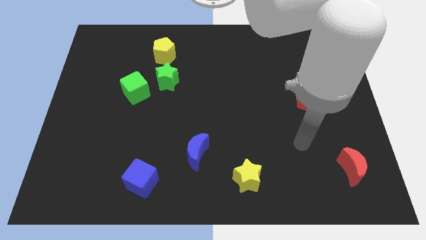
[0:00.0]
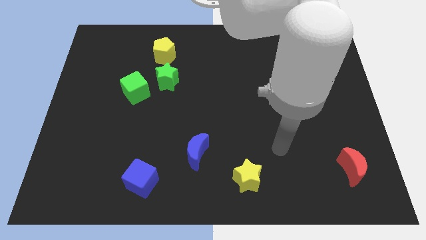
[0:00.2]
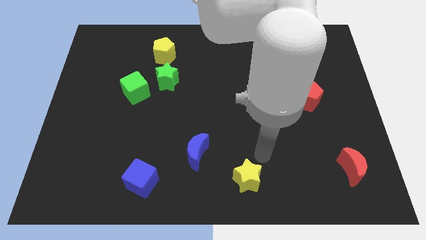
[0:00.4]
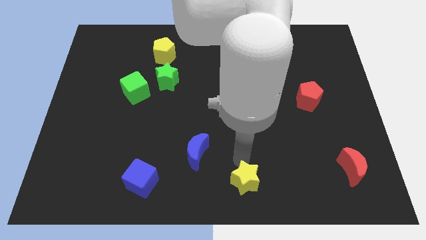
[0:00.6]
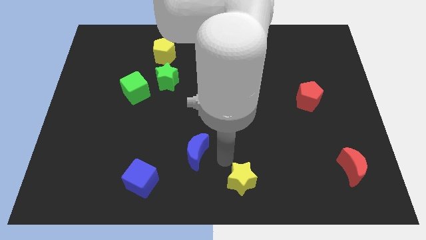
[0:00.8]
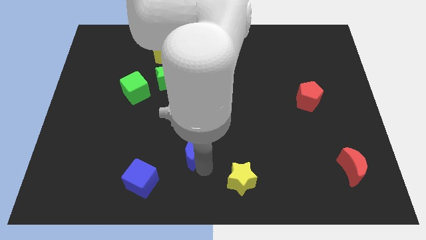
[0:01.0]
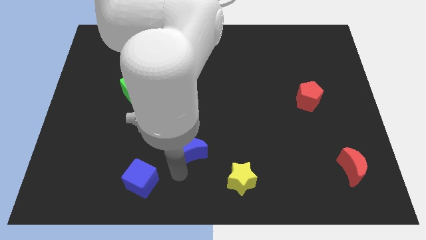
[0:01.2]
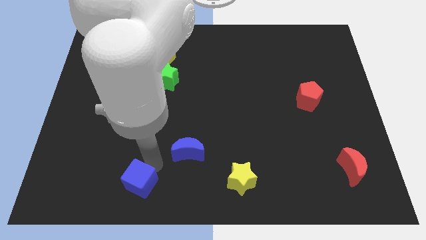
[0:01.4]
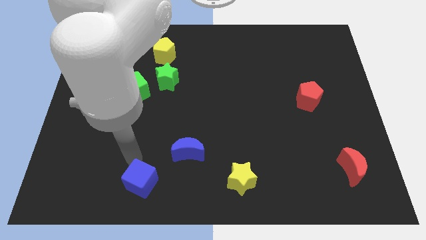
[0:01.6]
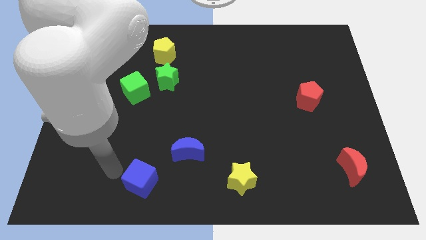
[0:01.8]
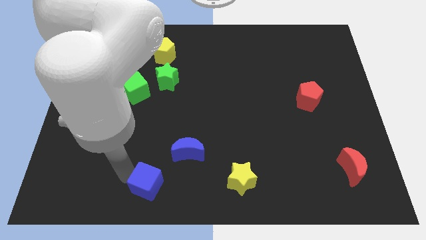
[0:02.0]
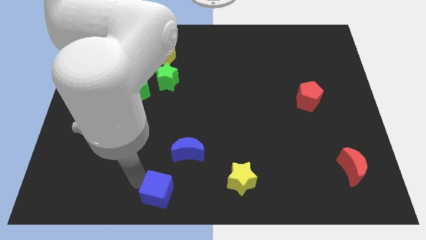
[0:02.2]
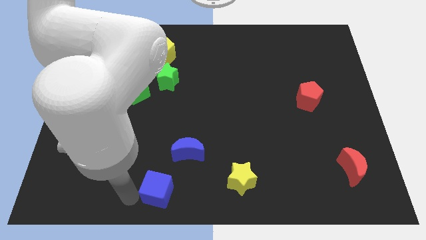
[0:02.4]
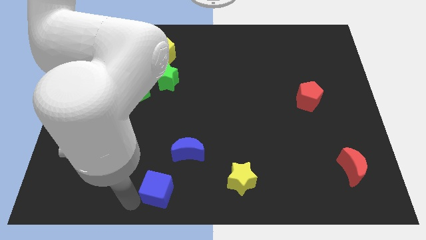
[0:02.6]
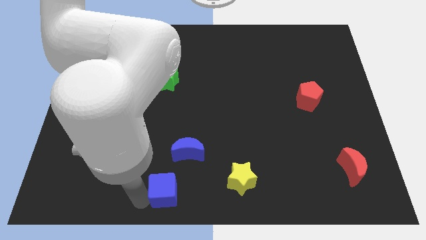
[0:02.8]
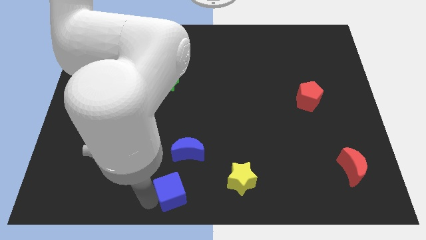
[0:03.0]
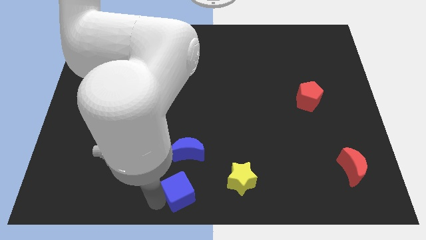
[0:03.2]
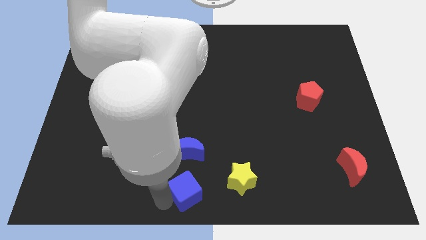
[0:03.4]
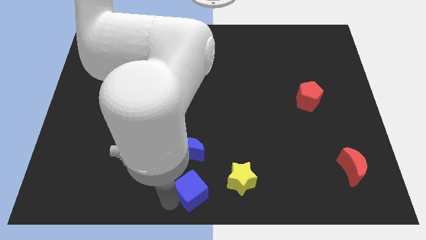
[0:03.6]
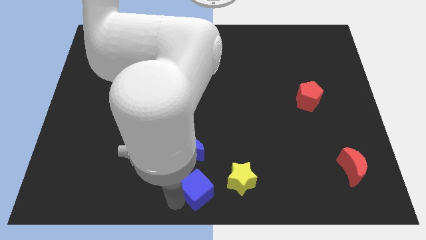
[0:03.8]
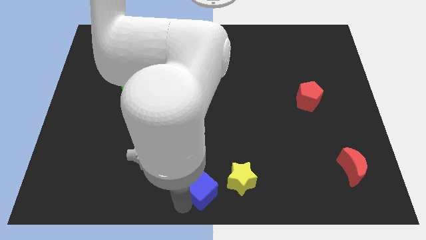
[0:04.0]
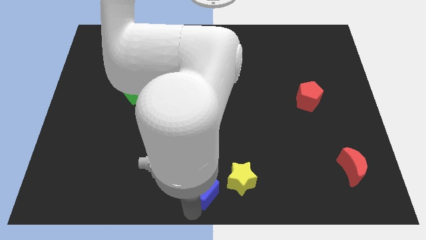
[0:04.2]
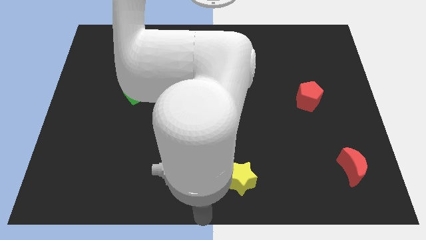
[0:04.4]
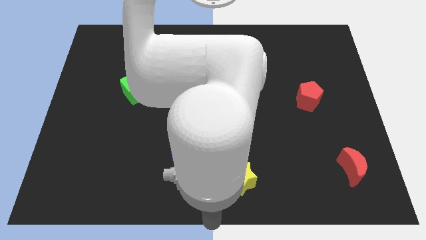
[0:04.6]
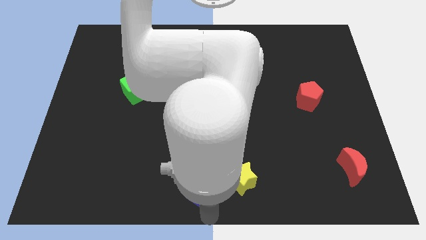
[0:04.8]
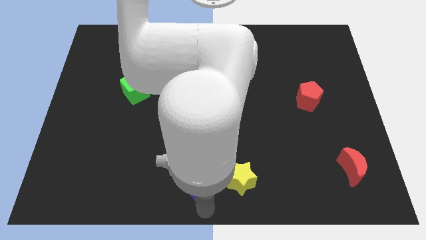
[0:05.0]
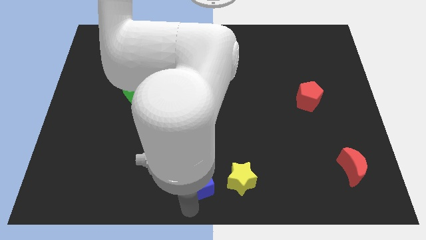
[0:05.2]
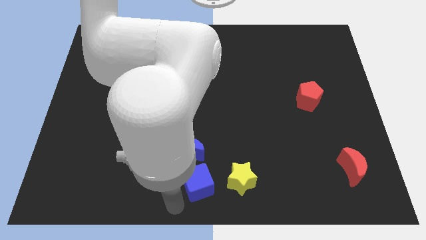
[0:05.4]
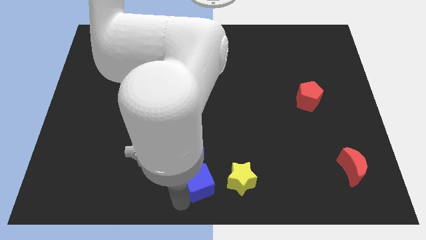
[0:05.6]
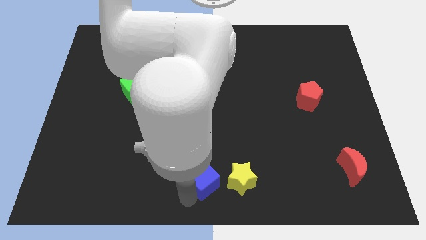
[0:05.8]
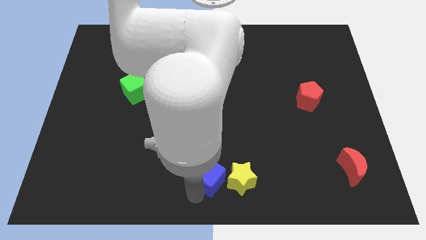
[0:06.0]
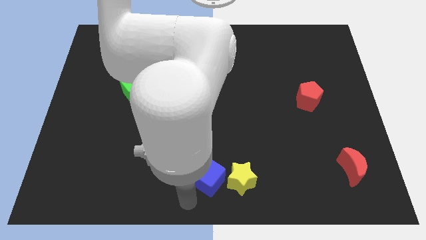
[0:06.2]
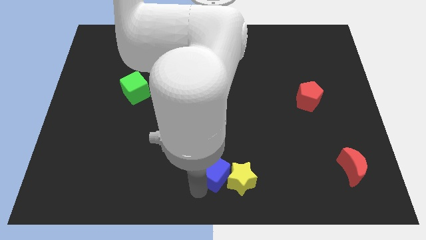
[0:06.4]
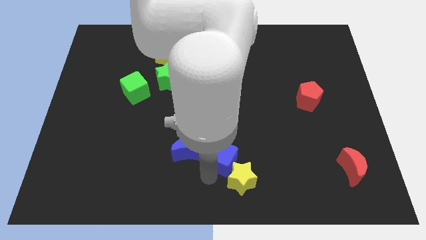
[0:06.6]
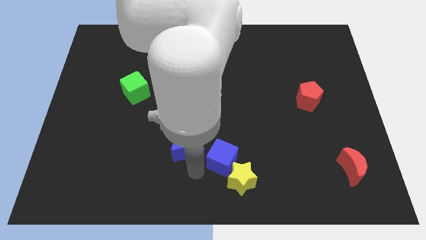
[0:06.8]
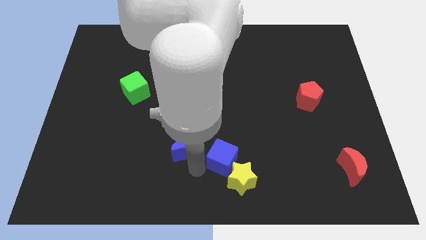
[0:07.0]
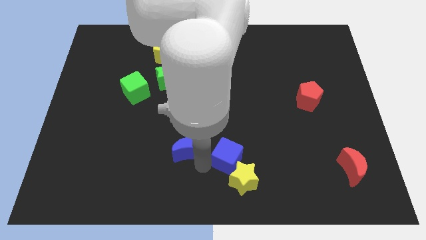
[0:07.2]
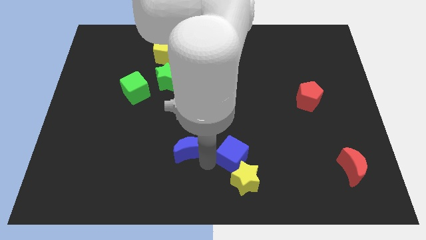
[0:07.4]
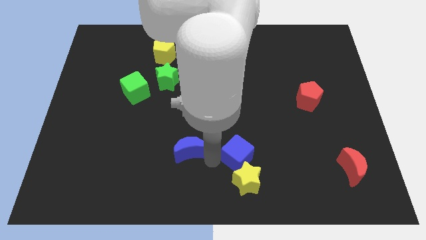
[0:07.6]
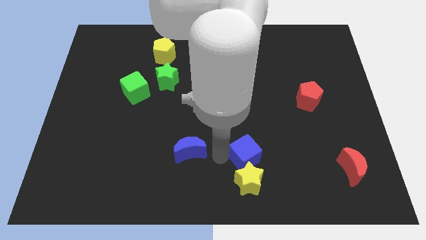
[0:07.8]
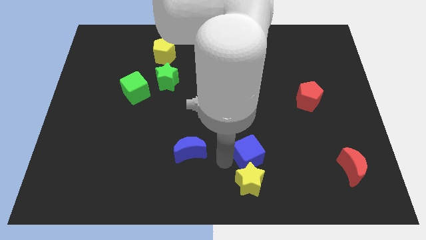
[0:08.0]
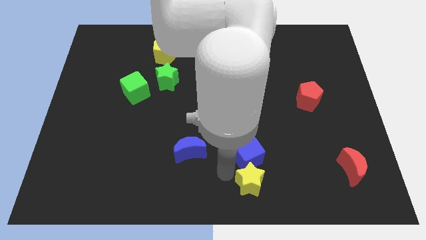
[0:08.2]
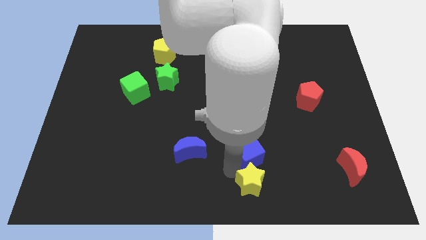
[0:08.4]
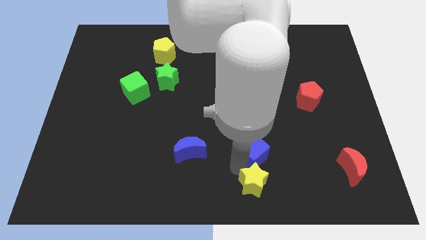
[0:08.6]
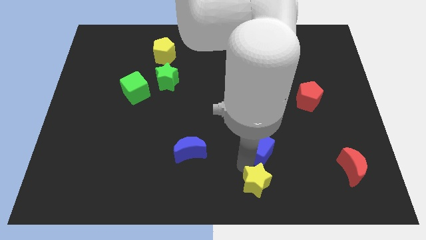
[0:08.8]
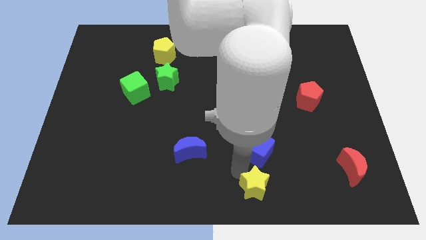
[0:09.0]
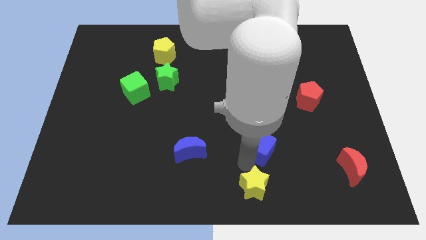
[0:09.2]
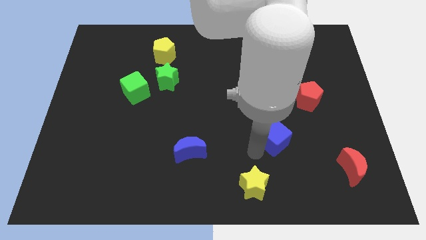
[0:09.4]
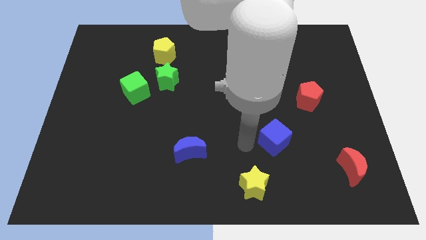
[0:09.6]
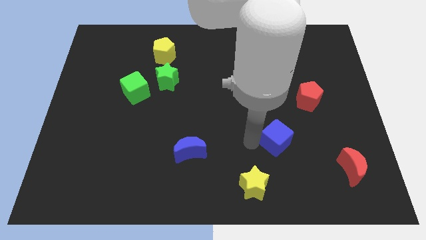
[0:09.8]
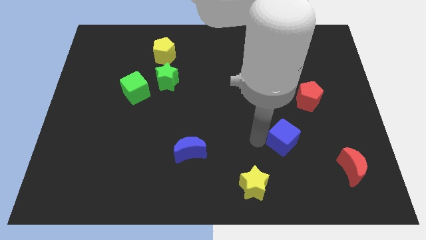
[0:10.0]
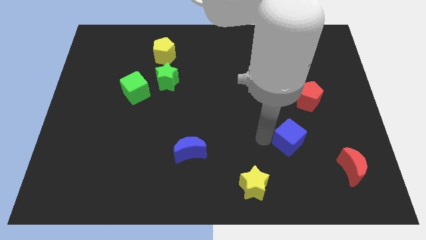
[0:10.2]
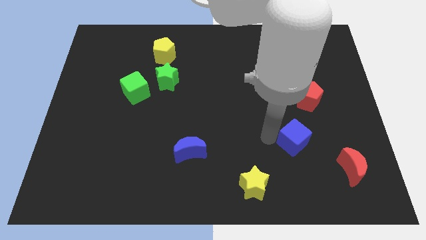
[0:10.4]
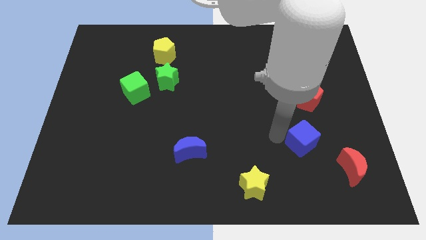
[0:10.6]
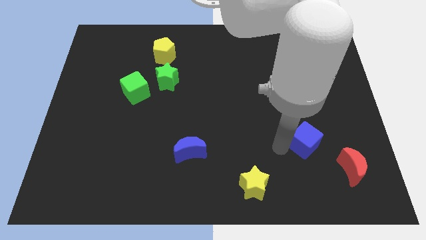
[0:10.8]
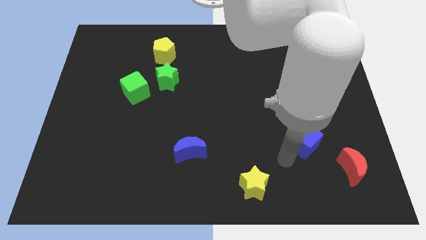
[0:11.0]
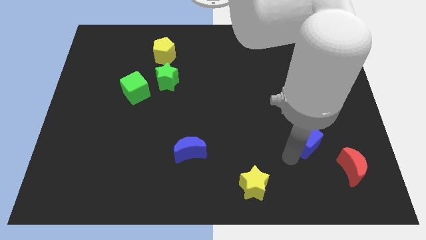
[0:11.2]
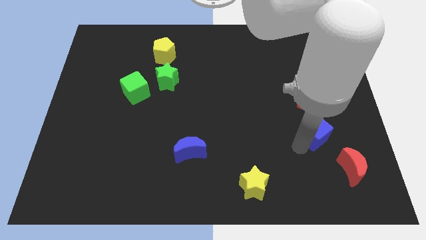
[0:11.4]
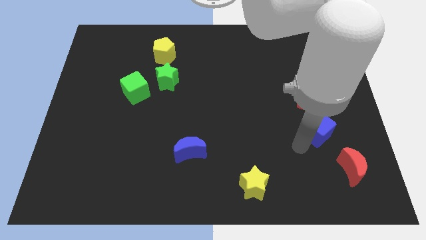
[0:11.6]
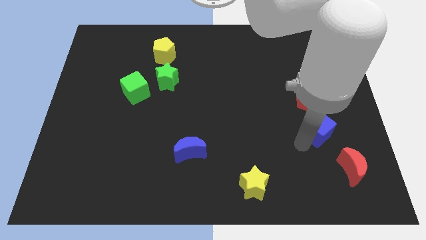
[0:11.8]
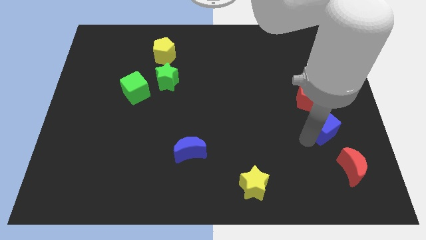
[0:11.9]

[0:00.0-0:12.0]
put the blue cube to the bottom right side of the red pentagon

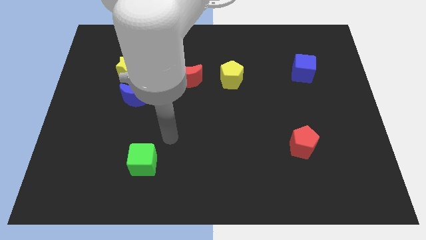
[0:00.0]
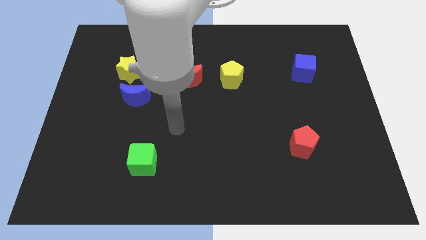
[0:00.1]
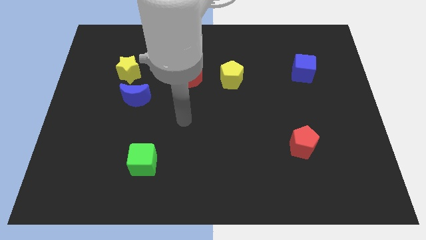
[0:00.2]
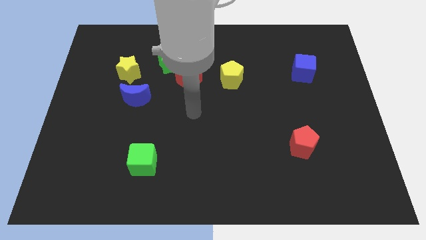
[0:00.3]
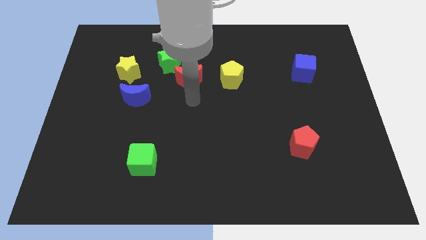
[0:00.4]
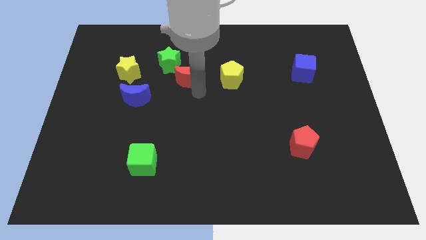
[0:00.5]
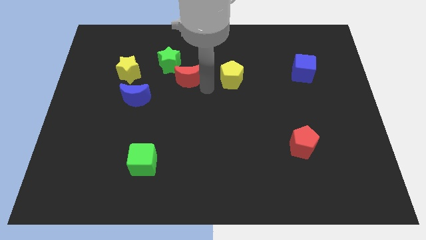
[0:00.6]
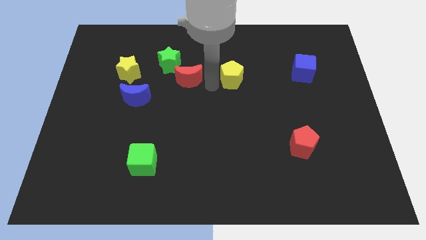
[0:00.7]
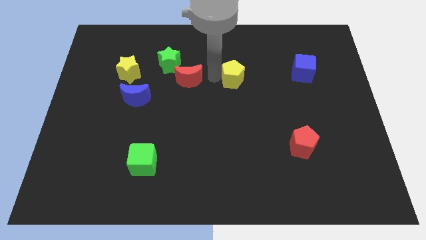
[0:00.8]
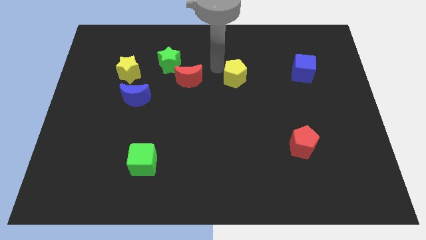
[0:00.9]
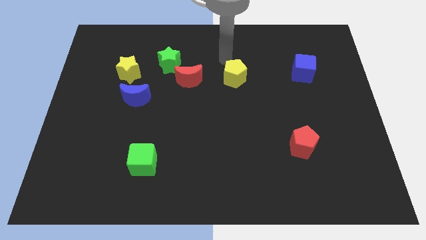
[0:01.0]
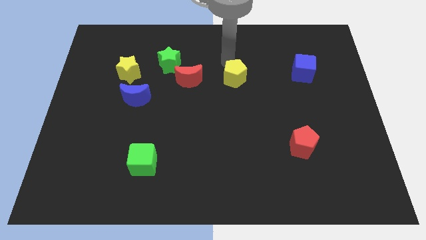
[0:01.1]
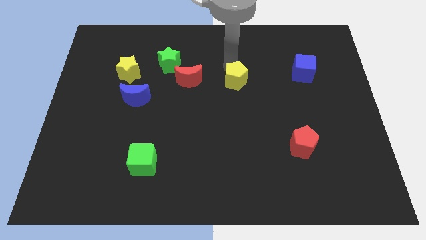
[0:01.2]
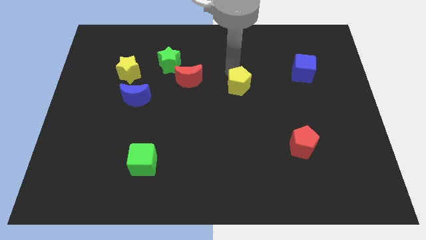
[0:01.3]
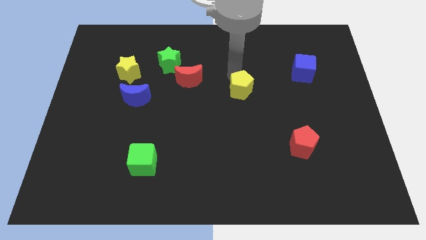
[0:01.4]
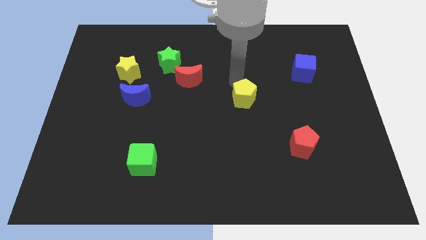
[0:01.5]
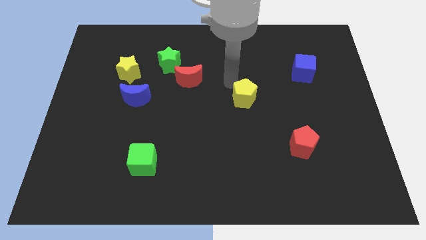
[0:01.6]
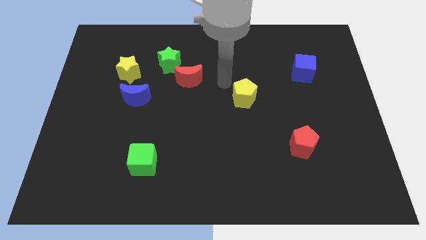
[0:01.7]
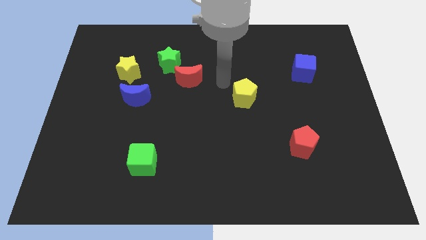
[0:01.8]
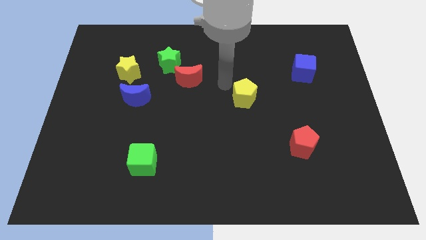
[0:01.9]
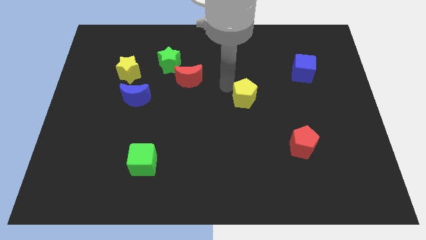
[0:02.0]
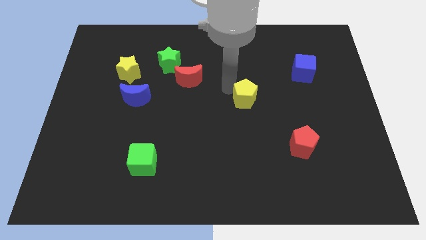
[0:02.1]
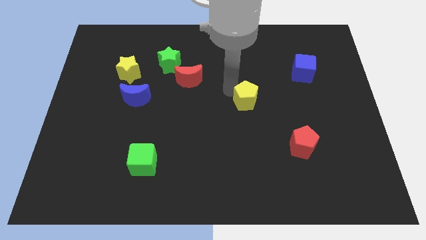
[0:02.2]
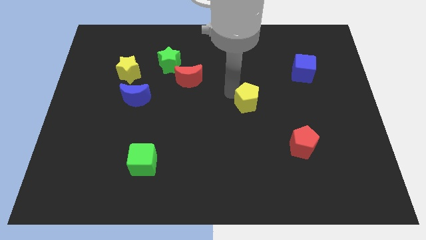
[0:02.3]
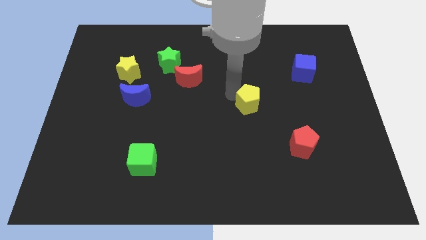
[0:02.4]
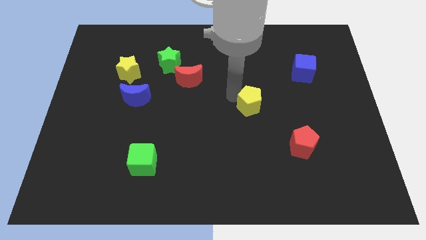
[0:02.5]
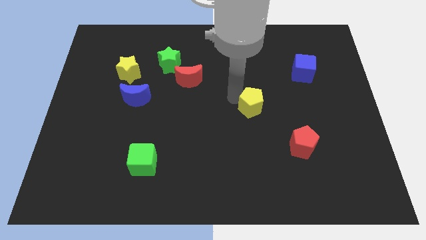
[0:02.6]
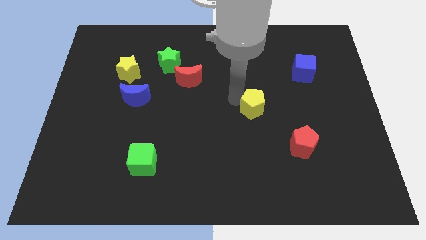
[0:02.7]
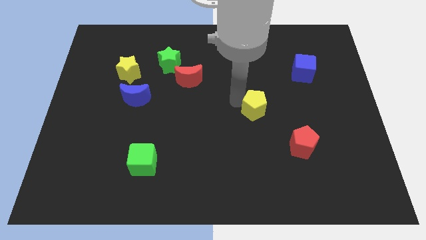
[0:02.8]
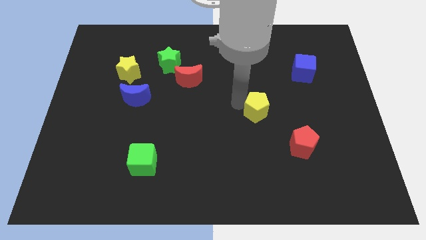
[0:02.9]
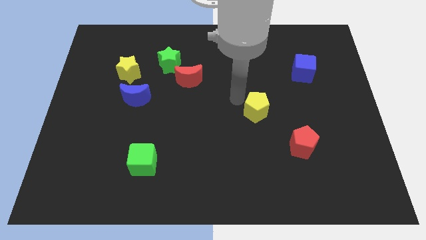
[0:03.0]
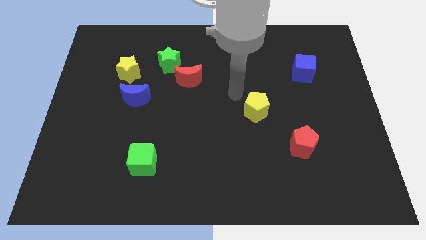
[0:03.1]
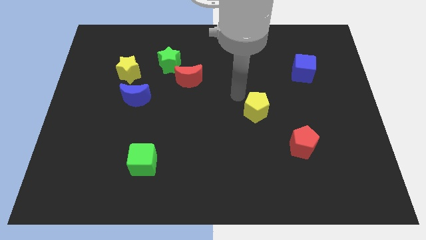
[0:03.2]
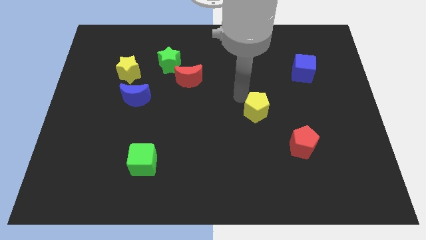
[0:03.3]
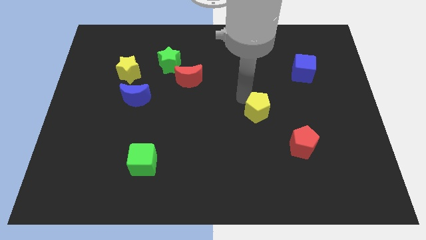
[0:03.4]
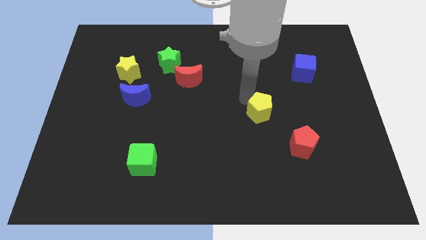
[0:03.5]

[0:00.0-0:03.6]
push the yellow pentagon to the top left side of the red pentagon
